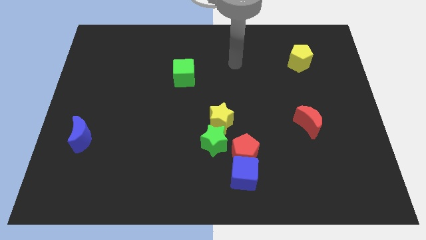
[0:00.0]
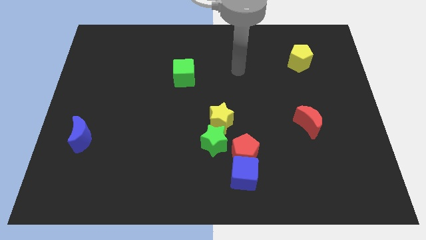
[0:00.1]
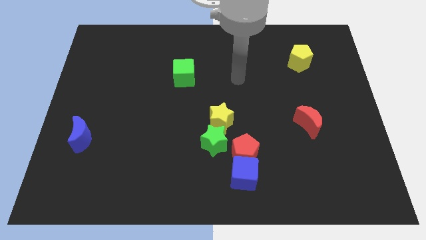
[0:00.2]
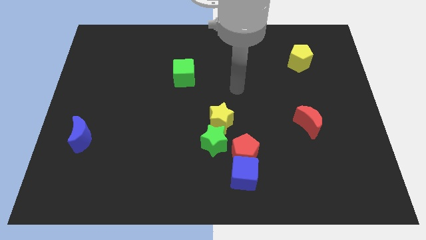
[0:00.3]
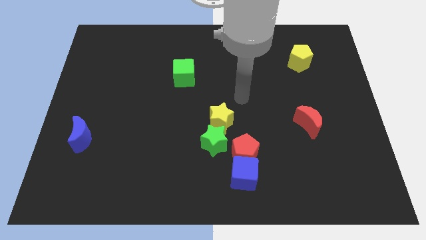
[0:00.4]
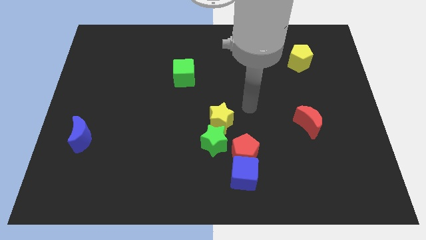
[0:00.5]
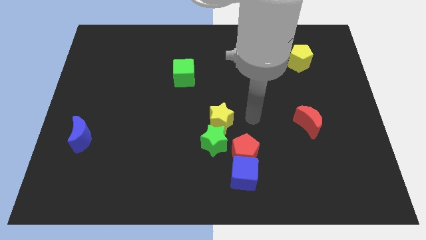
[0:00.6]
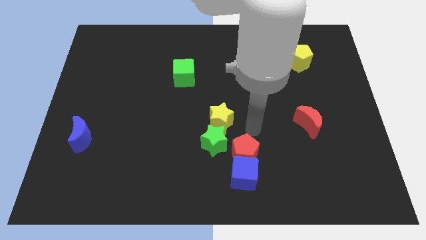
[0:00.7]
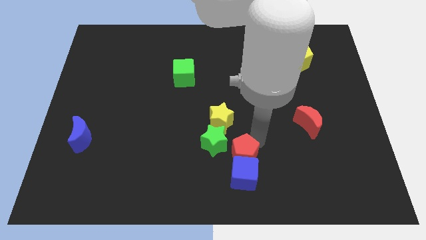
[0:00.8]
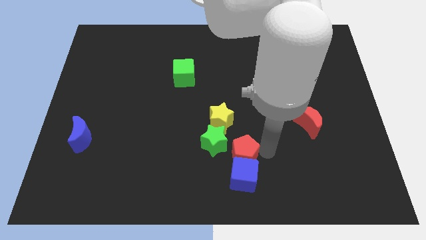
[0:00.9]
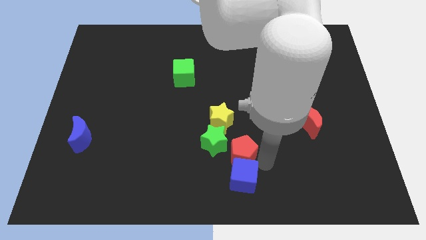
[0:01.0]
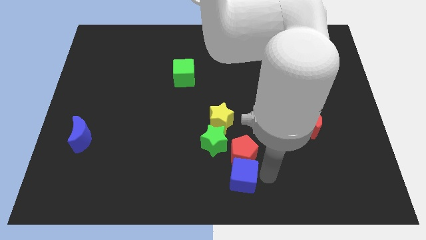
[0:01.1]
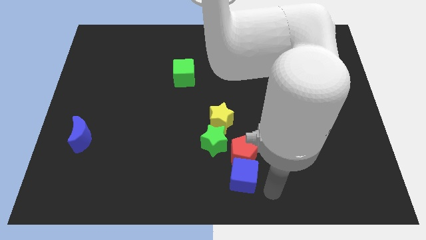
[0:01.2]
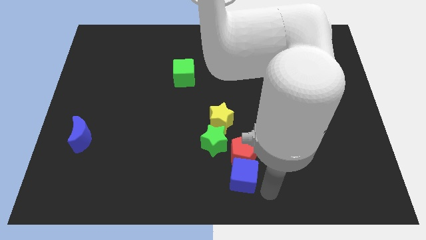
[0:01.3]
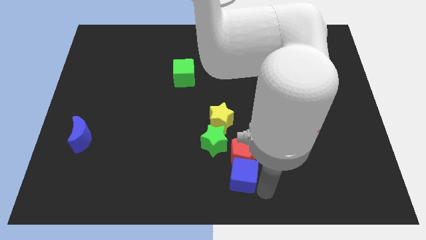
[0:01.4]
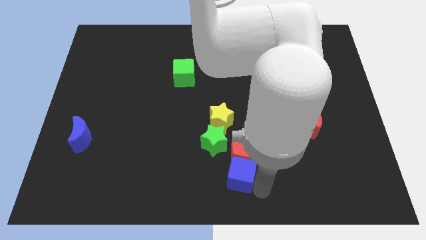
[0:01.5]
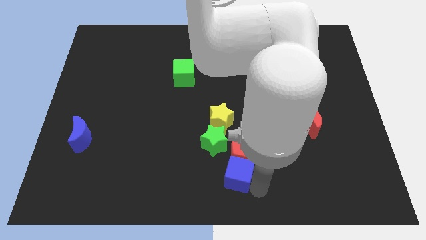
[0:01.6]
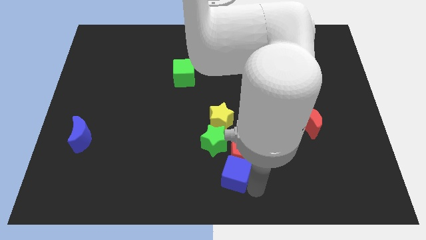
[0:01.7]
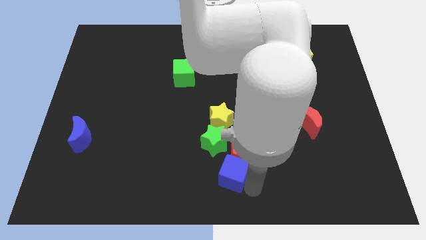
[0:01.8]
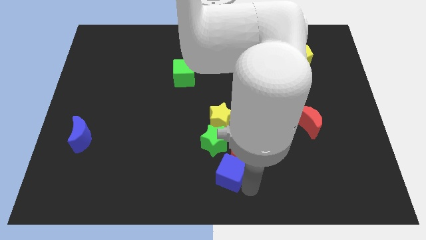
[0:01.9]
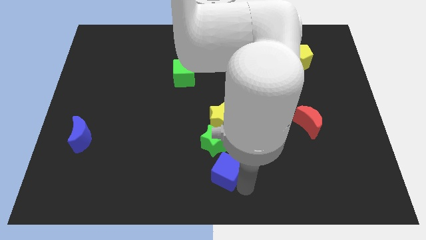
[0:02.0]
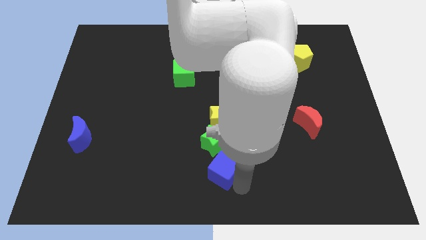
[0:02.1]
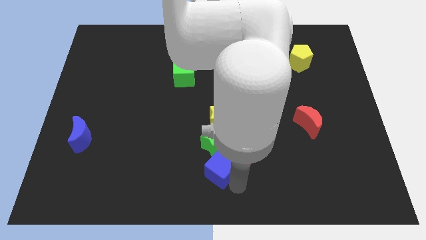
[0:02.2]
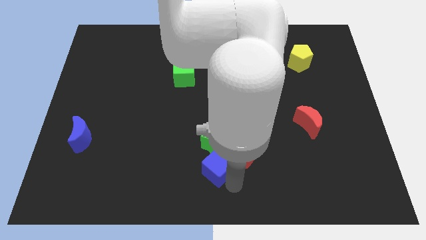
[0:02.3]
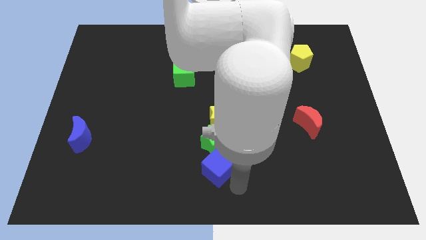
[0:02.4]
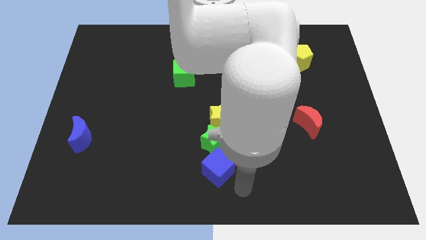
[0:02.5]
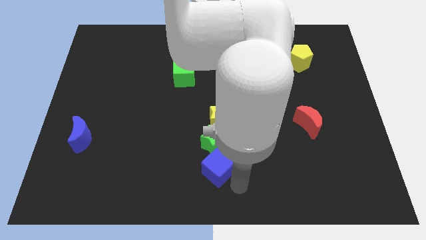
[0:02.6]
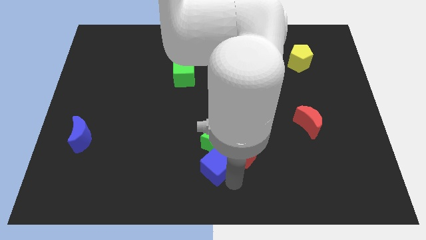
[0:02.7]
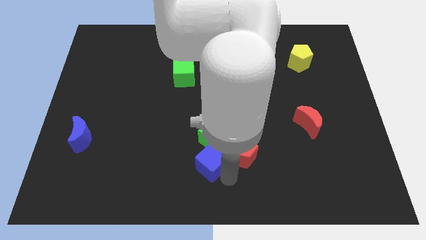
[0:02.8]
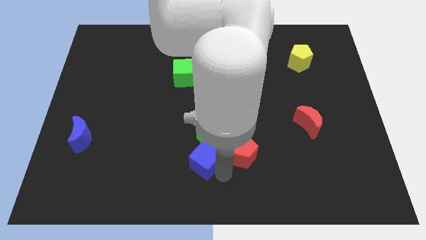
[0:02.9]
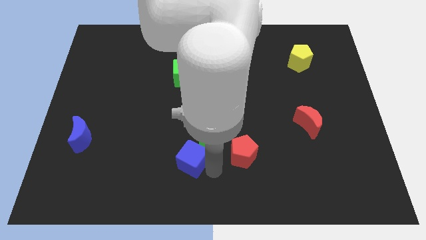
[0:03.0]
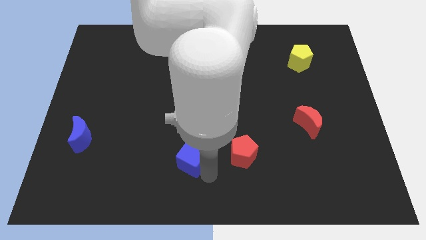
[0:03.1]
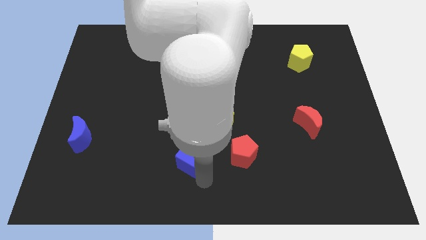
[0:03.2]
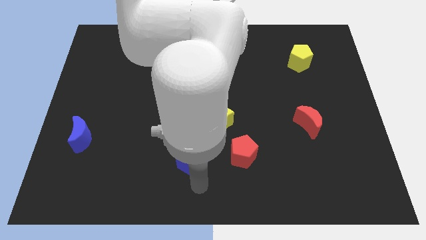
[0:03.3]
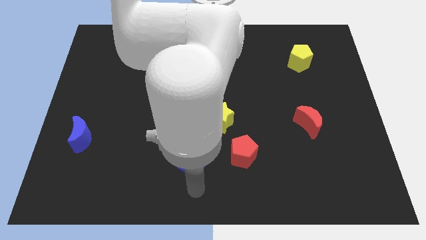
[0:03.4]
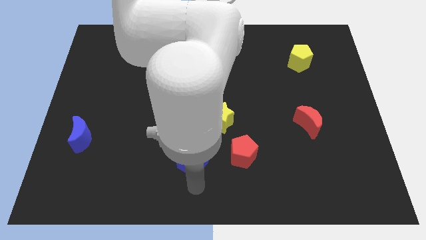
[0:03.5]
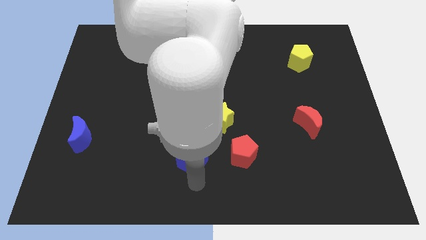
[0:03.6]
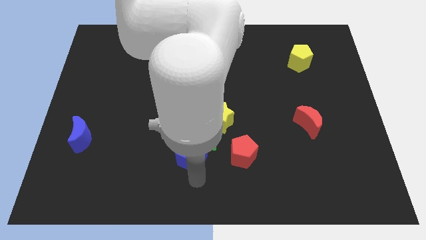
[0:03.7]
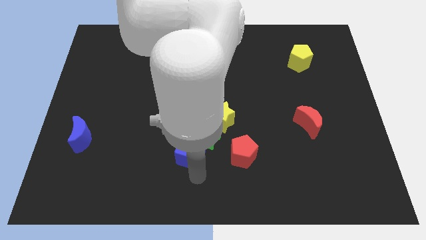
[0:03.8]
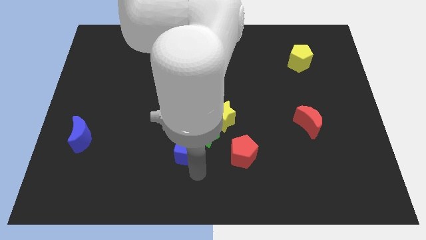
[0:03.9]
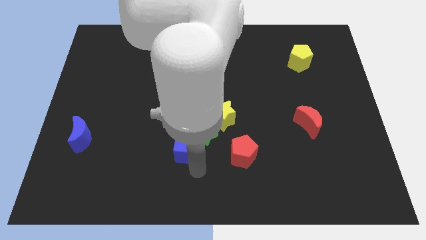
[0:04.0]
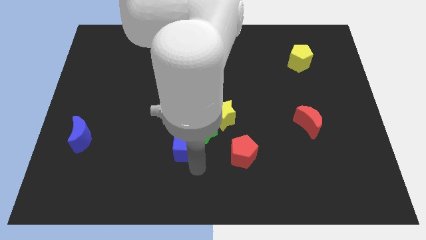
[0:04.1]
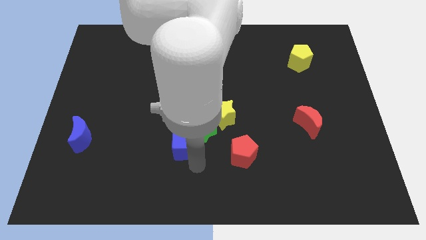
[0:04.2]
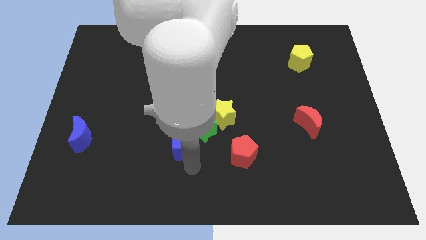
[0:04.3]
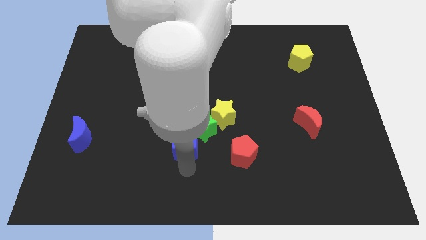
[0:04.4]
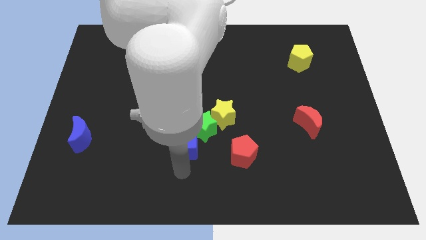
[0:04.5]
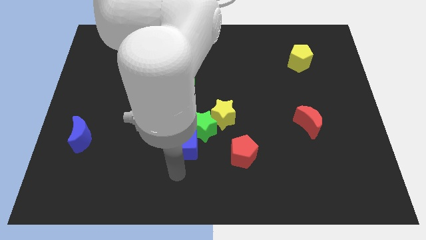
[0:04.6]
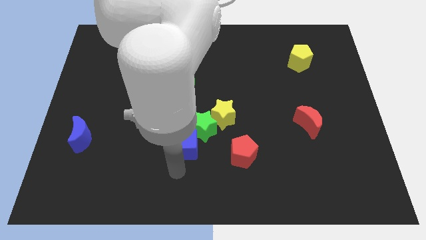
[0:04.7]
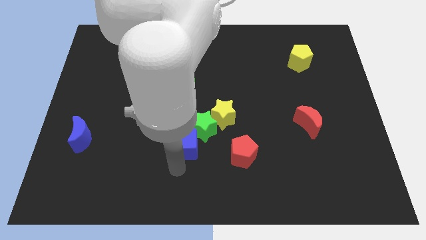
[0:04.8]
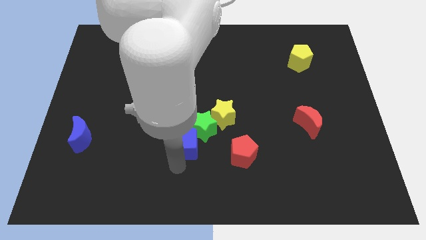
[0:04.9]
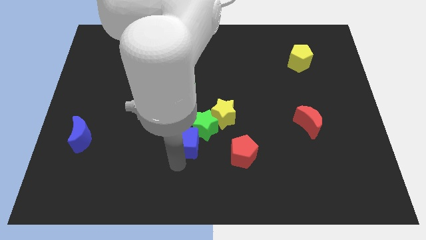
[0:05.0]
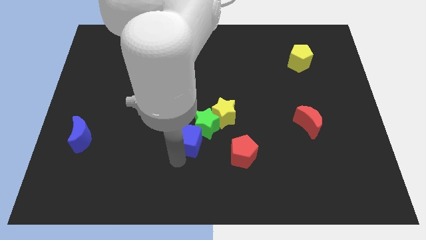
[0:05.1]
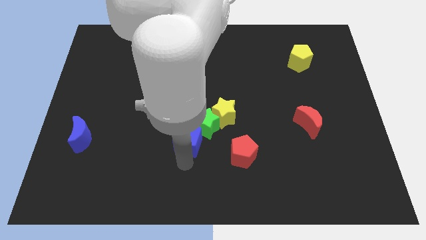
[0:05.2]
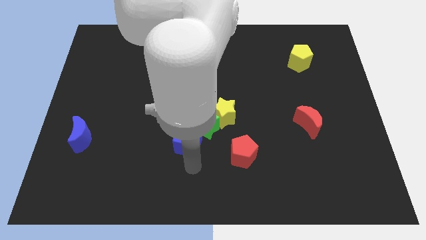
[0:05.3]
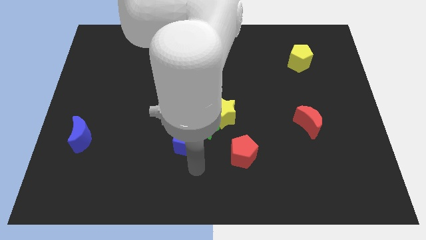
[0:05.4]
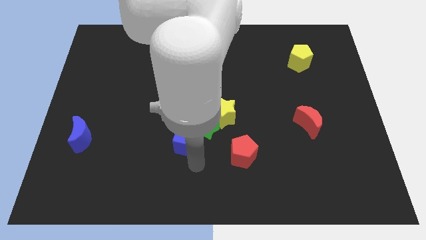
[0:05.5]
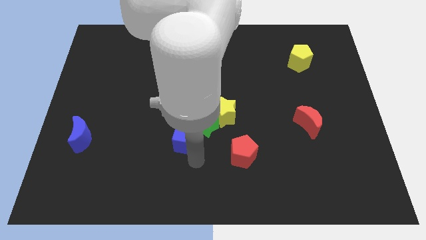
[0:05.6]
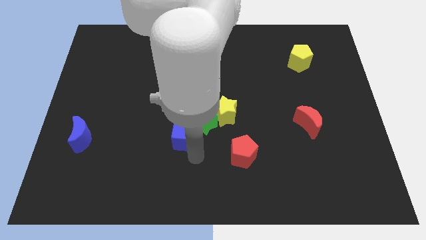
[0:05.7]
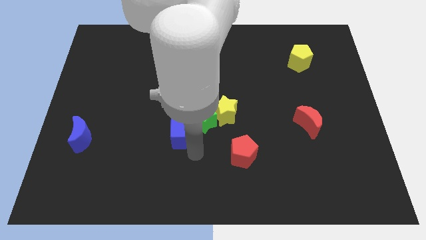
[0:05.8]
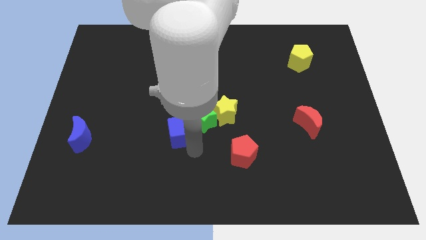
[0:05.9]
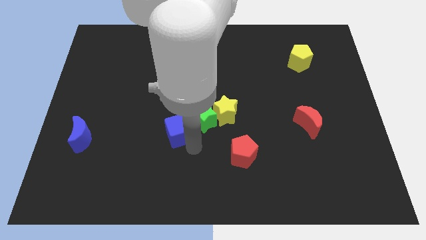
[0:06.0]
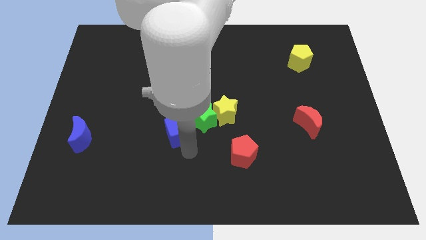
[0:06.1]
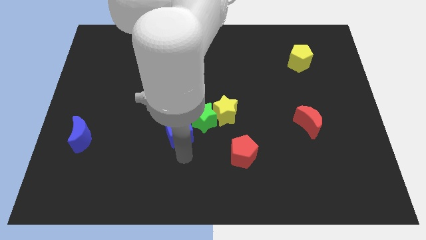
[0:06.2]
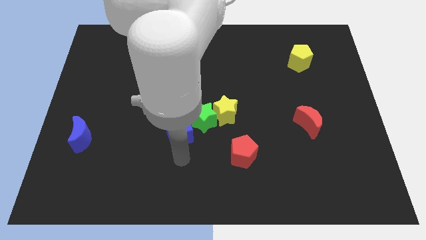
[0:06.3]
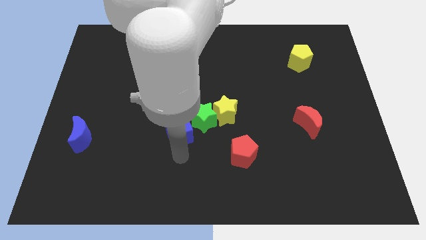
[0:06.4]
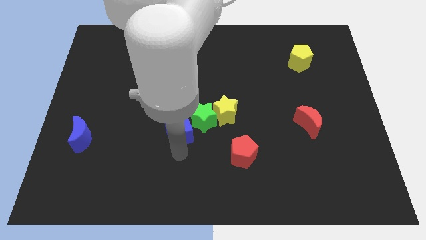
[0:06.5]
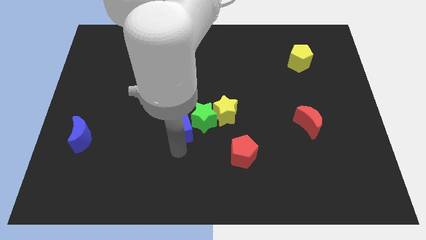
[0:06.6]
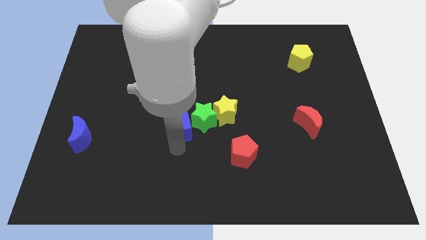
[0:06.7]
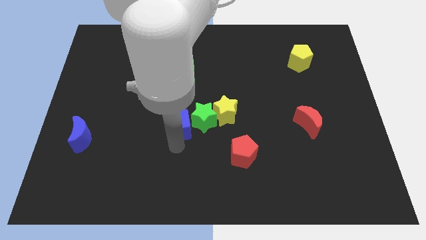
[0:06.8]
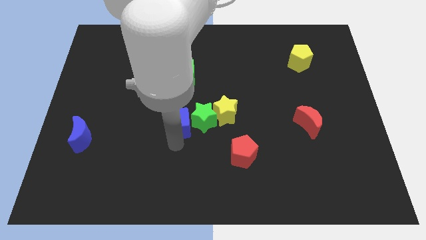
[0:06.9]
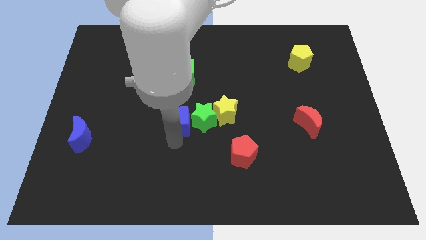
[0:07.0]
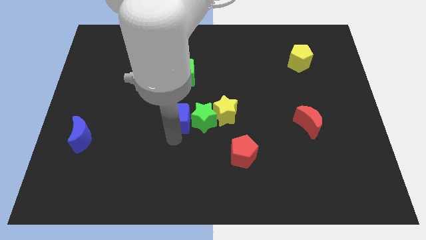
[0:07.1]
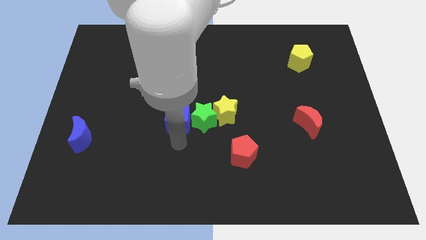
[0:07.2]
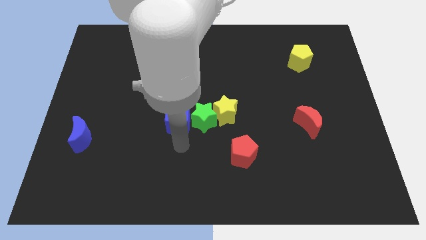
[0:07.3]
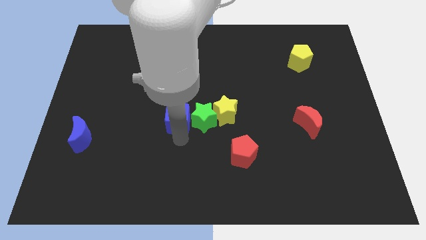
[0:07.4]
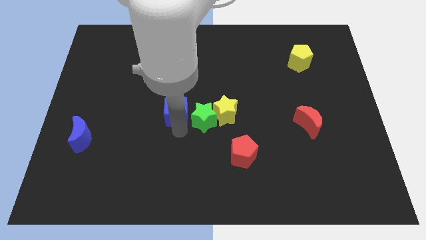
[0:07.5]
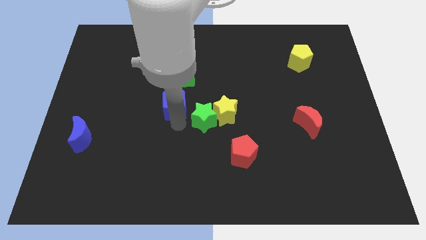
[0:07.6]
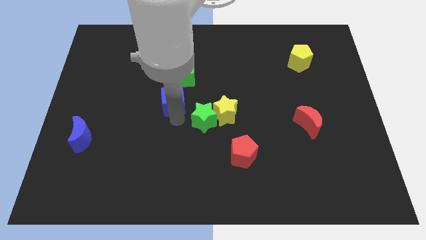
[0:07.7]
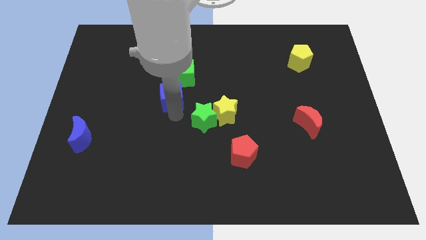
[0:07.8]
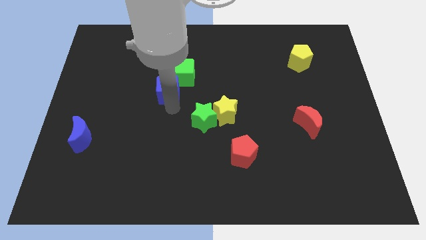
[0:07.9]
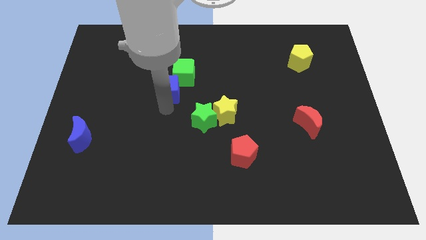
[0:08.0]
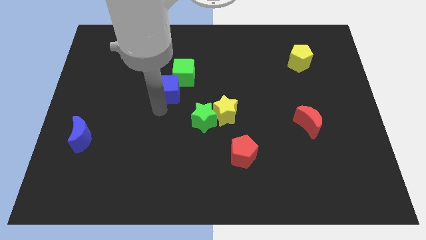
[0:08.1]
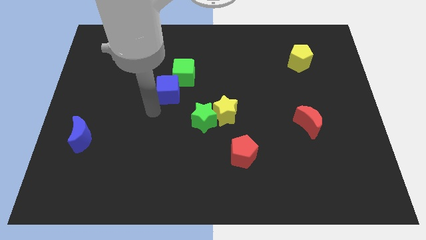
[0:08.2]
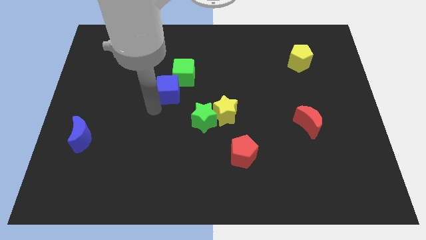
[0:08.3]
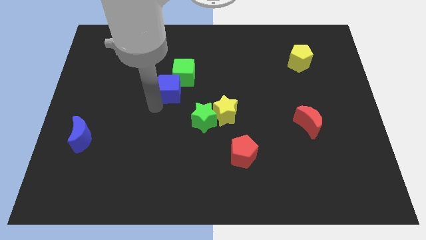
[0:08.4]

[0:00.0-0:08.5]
put the blue cube next to the green cube
